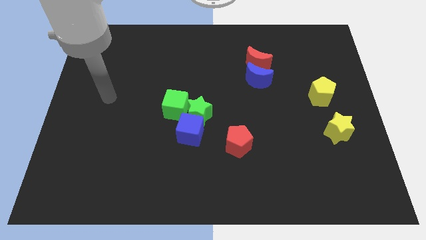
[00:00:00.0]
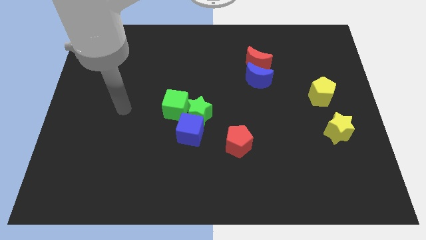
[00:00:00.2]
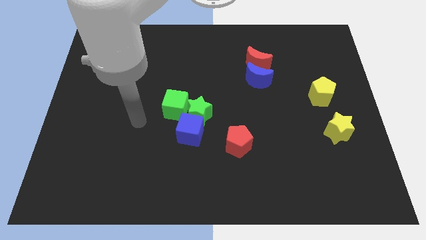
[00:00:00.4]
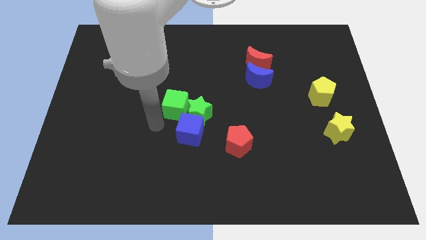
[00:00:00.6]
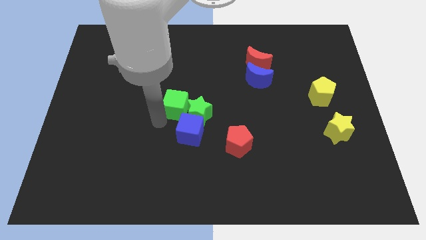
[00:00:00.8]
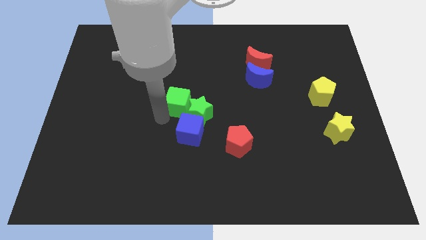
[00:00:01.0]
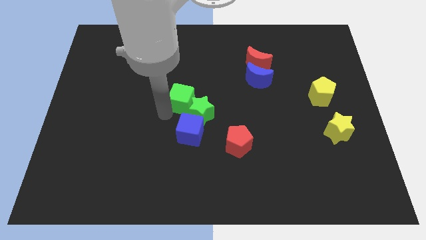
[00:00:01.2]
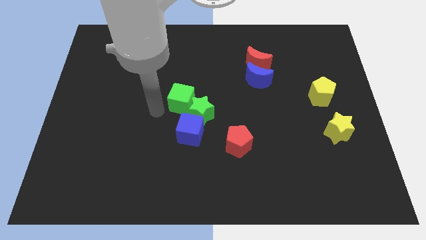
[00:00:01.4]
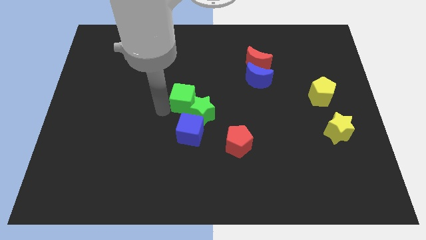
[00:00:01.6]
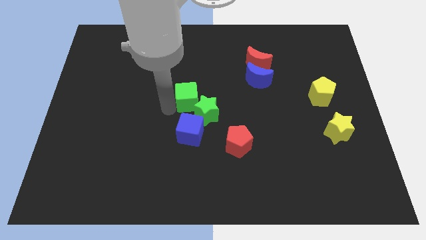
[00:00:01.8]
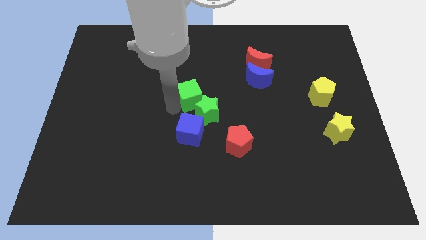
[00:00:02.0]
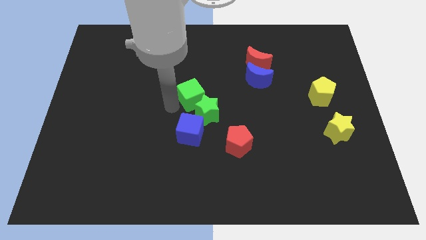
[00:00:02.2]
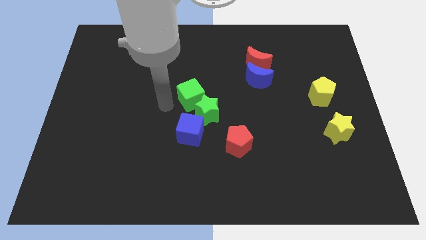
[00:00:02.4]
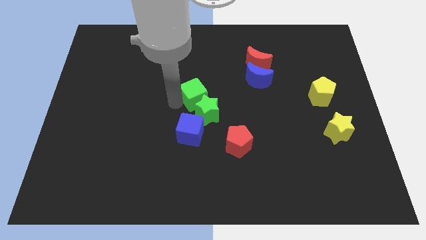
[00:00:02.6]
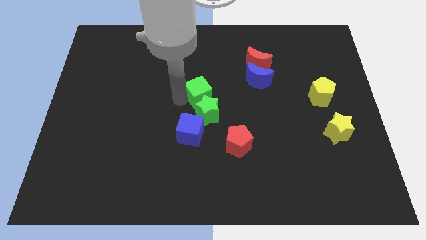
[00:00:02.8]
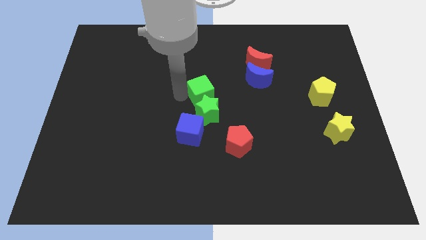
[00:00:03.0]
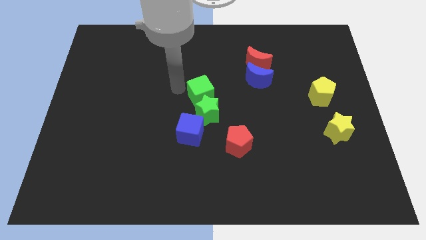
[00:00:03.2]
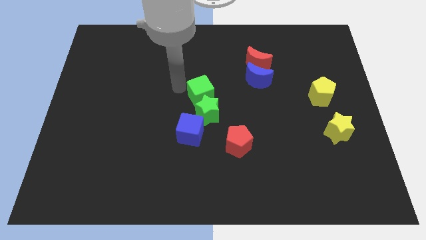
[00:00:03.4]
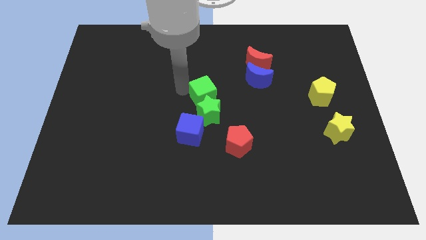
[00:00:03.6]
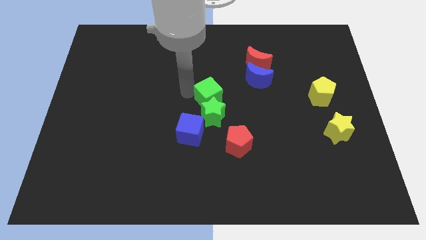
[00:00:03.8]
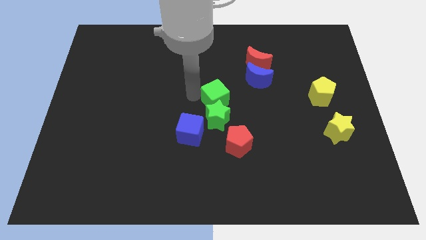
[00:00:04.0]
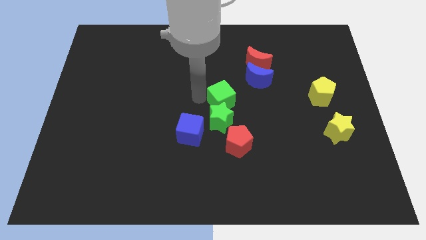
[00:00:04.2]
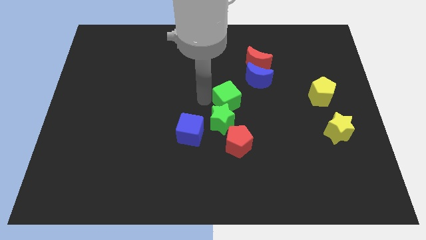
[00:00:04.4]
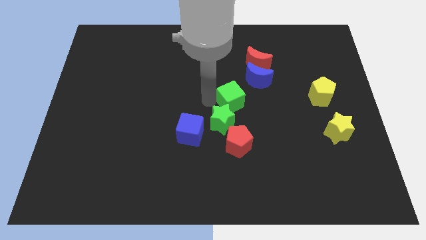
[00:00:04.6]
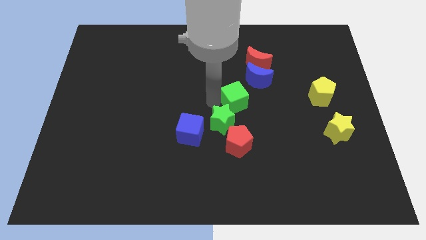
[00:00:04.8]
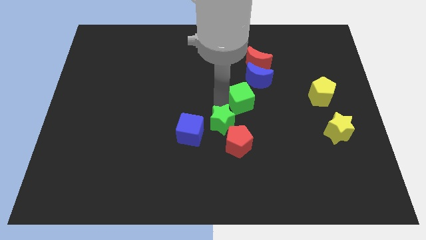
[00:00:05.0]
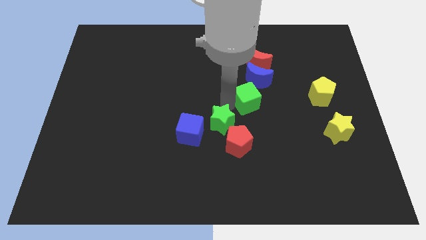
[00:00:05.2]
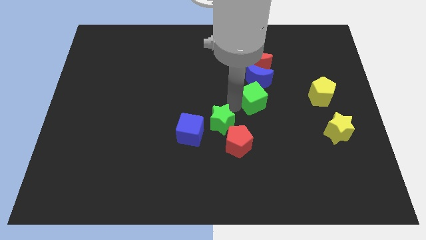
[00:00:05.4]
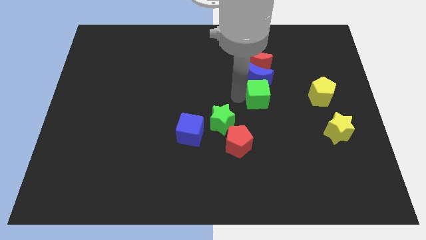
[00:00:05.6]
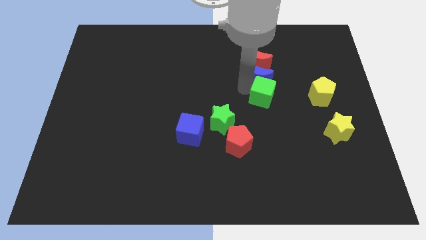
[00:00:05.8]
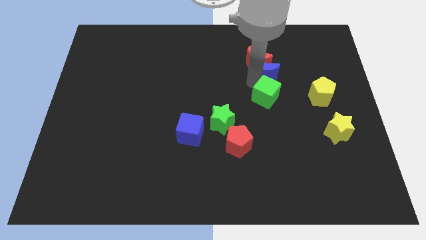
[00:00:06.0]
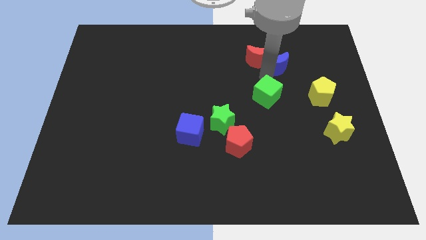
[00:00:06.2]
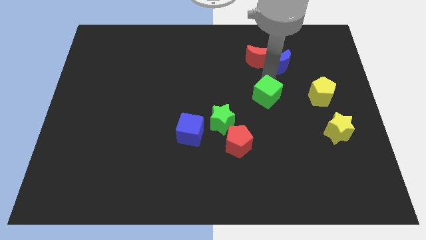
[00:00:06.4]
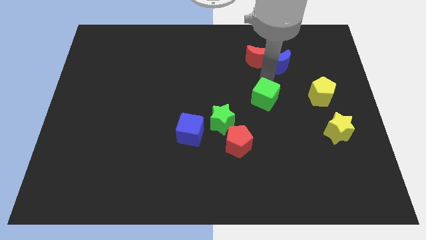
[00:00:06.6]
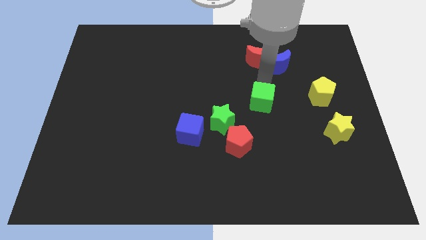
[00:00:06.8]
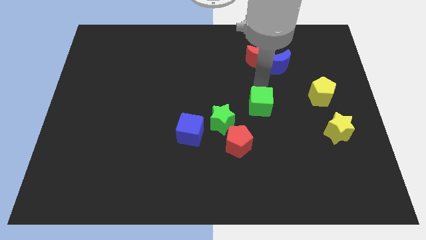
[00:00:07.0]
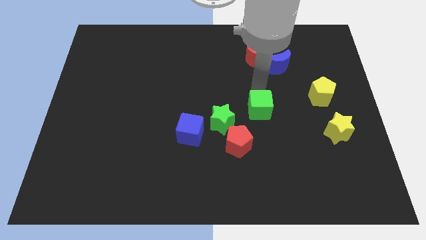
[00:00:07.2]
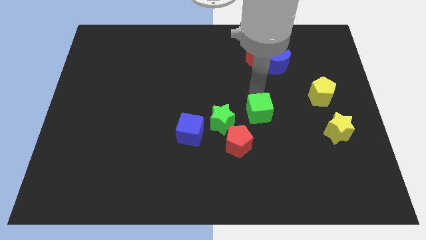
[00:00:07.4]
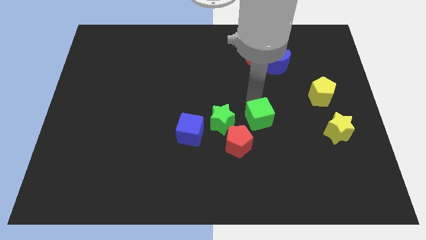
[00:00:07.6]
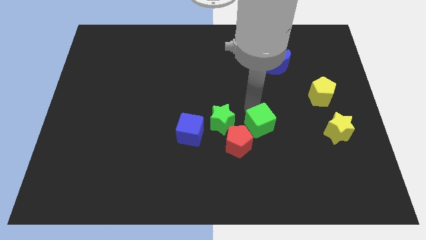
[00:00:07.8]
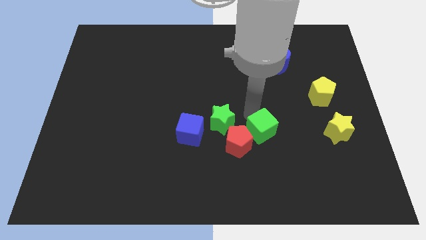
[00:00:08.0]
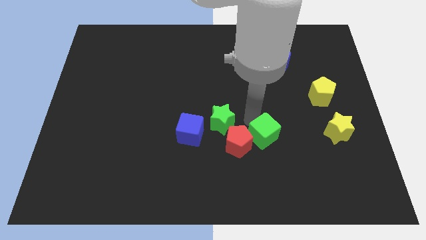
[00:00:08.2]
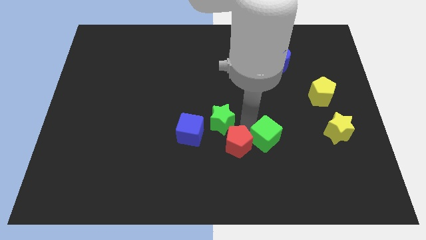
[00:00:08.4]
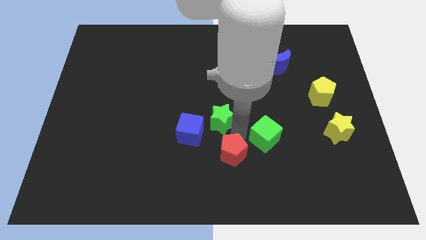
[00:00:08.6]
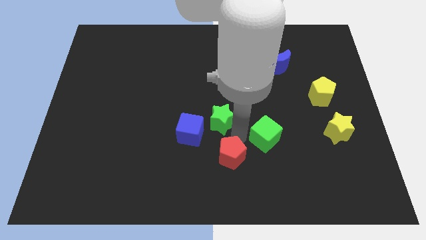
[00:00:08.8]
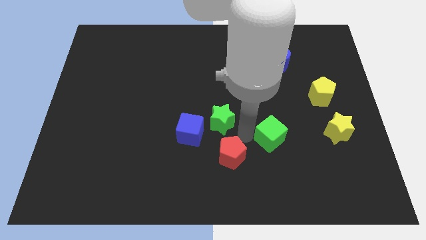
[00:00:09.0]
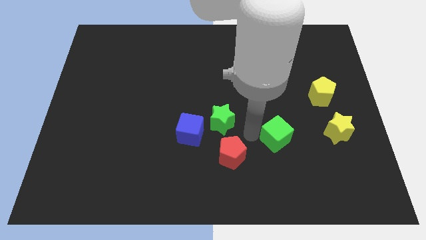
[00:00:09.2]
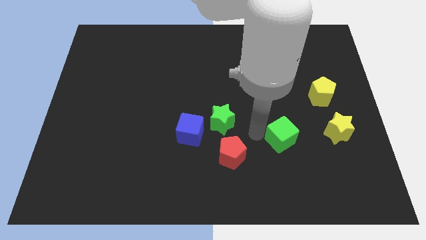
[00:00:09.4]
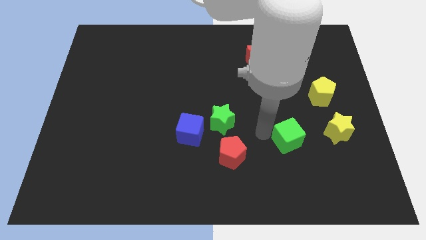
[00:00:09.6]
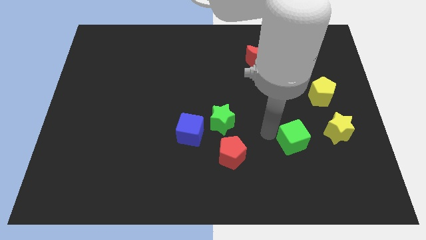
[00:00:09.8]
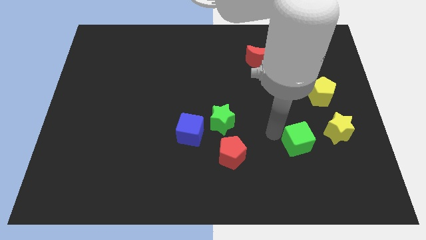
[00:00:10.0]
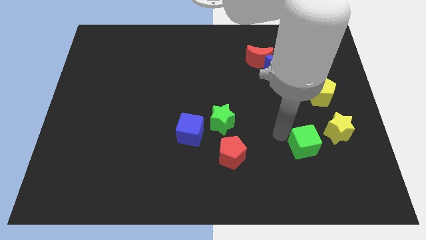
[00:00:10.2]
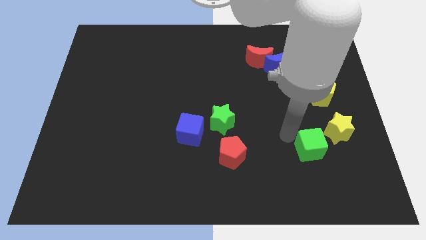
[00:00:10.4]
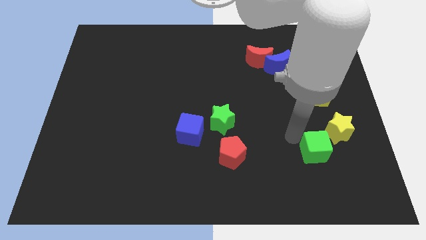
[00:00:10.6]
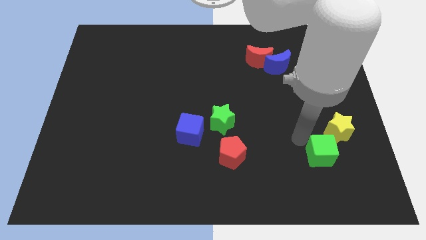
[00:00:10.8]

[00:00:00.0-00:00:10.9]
move the green cube to the bottom side of the yellow star

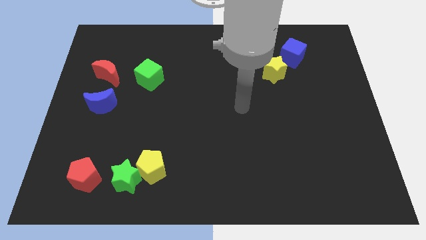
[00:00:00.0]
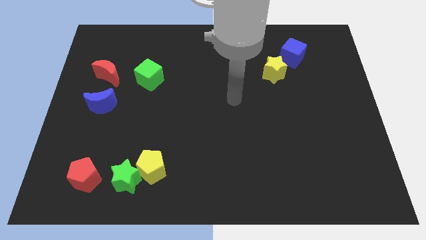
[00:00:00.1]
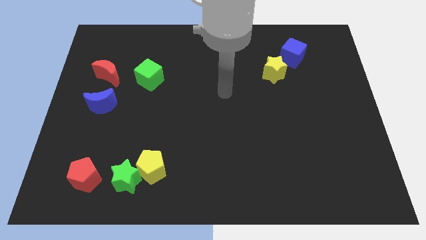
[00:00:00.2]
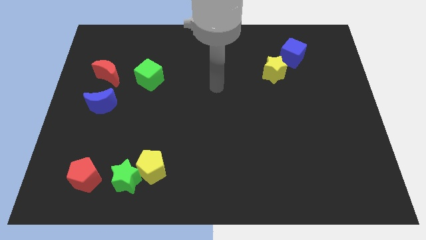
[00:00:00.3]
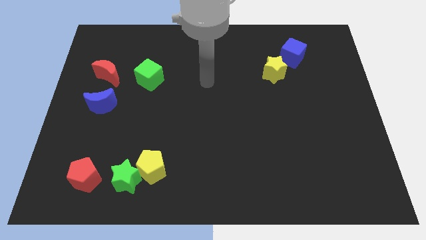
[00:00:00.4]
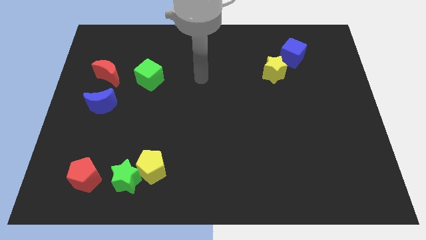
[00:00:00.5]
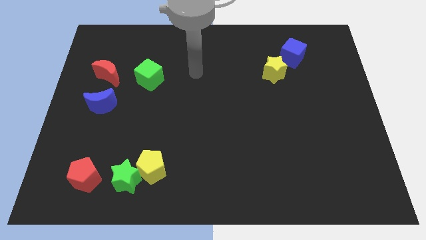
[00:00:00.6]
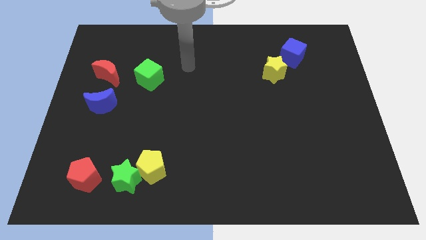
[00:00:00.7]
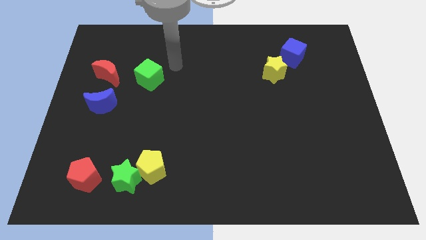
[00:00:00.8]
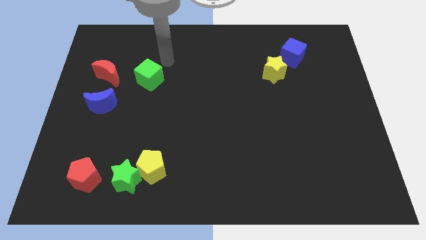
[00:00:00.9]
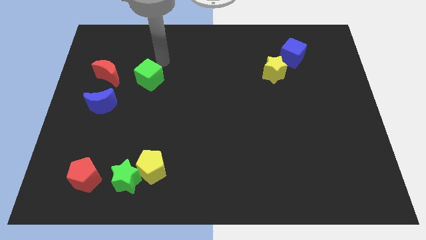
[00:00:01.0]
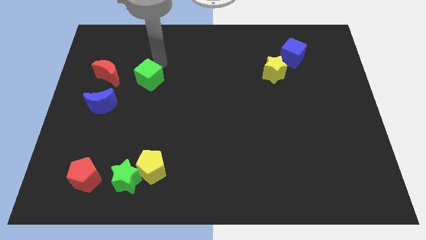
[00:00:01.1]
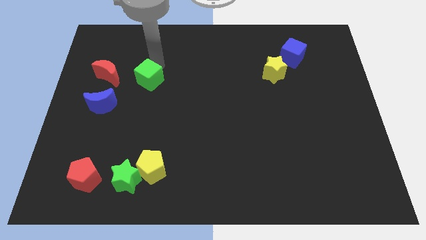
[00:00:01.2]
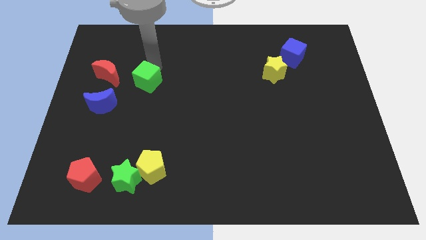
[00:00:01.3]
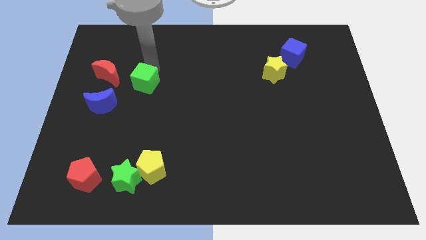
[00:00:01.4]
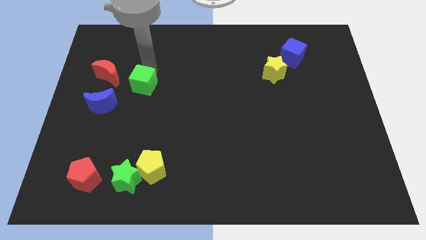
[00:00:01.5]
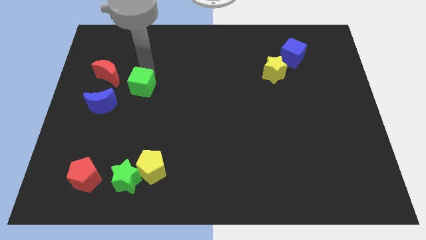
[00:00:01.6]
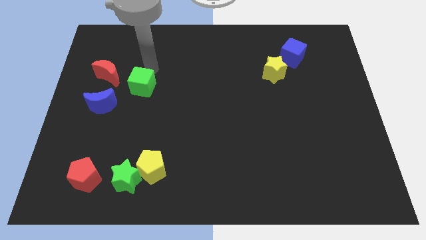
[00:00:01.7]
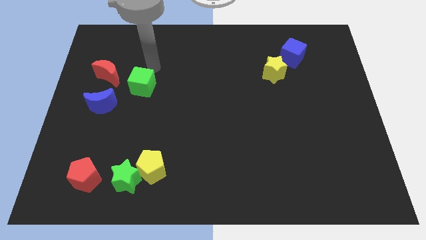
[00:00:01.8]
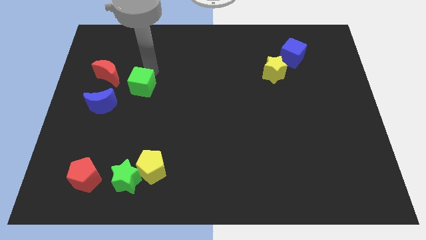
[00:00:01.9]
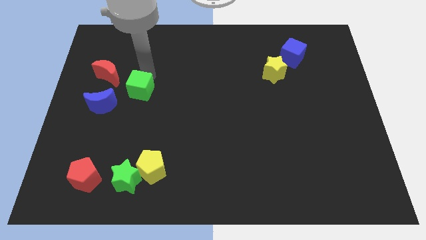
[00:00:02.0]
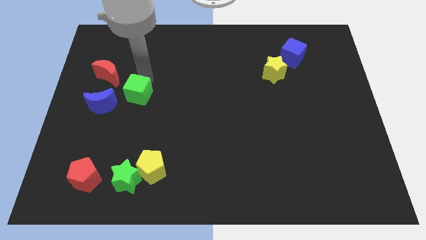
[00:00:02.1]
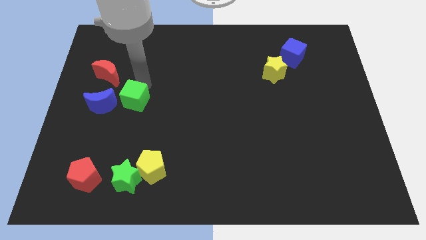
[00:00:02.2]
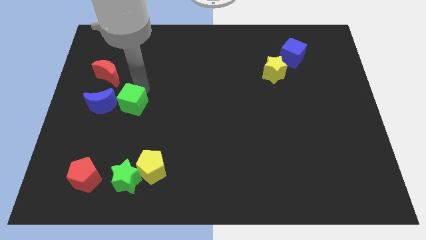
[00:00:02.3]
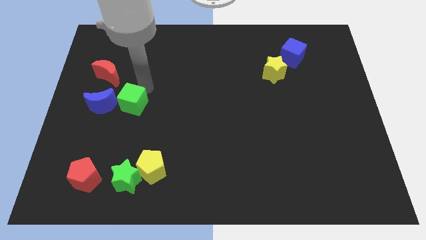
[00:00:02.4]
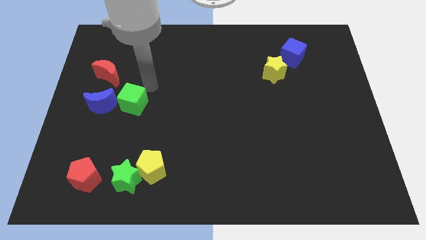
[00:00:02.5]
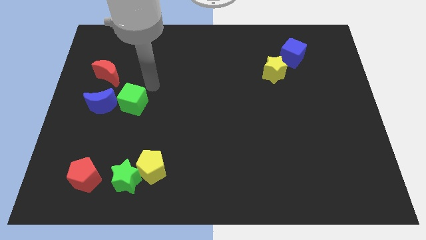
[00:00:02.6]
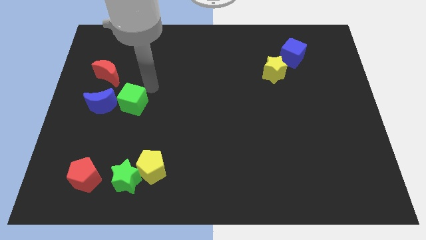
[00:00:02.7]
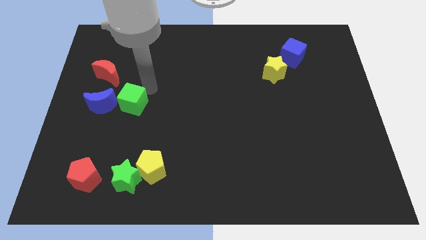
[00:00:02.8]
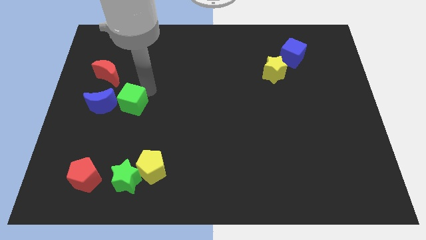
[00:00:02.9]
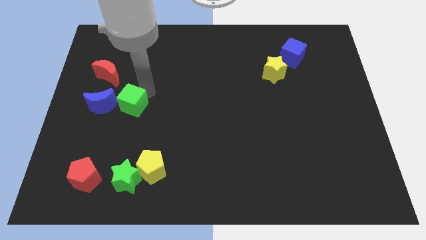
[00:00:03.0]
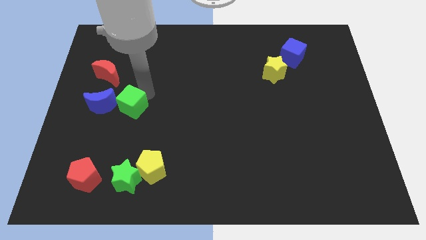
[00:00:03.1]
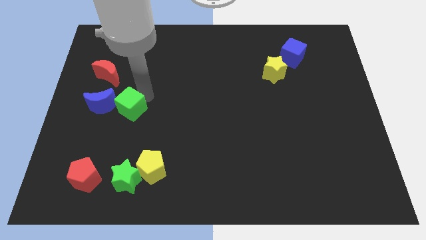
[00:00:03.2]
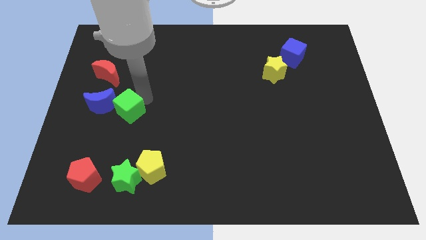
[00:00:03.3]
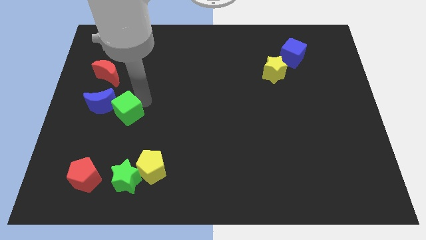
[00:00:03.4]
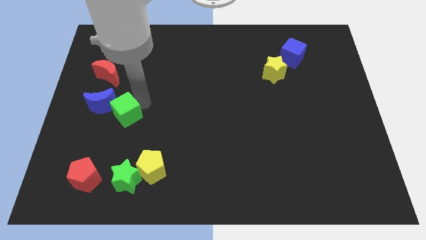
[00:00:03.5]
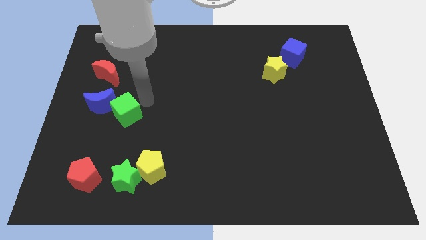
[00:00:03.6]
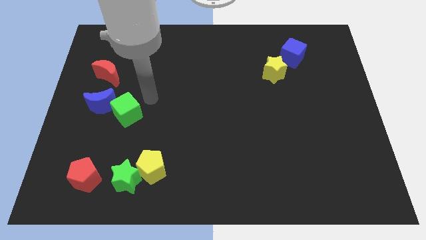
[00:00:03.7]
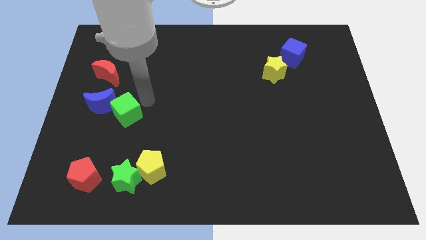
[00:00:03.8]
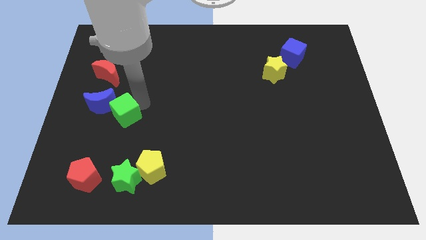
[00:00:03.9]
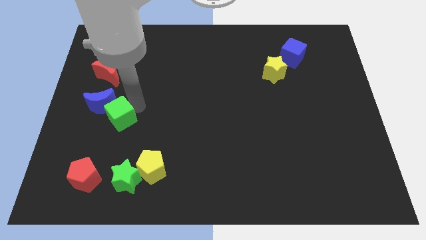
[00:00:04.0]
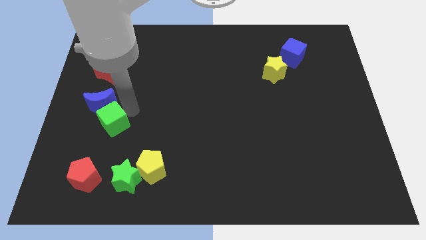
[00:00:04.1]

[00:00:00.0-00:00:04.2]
put the green cube above the red pentagon
